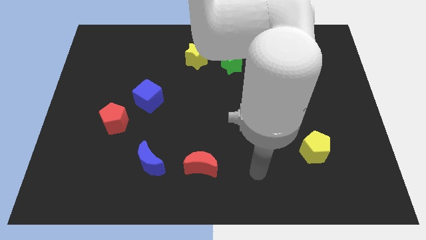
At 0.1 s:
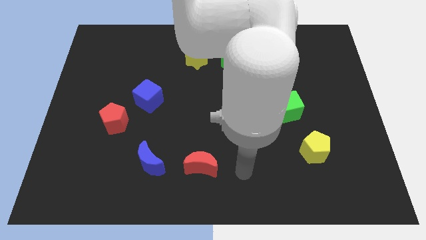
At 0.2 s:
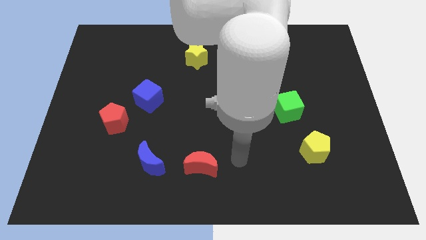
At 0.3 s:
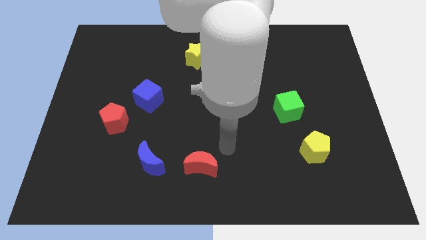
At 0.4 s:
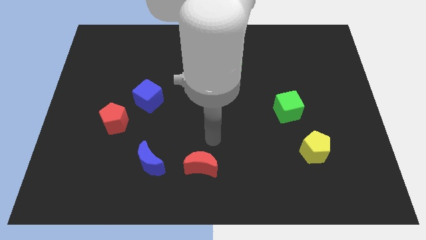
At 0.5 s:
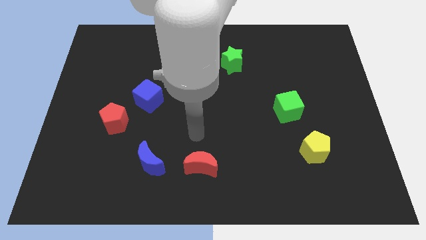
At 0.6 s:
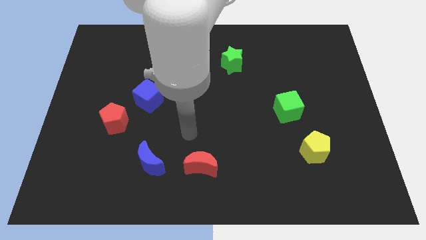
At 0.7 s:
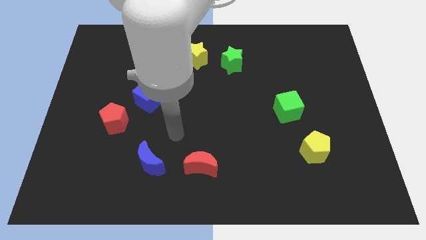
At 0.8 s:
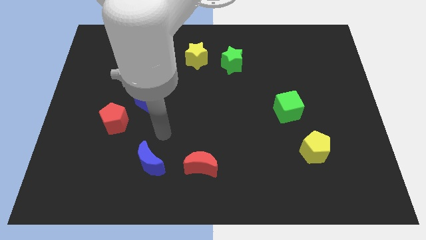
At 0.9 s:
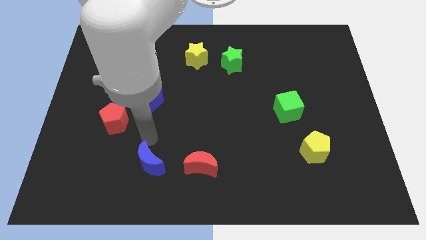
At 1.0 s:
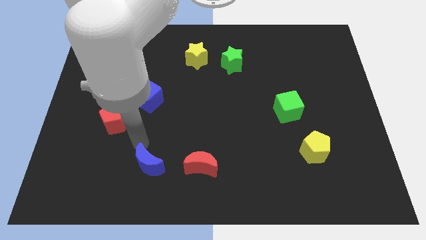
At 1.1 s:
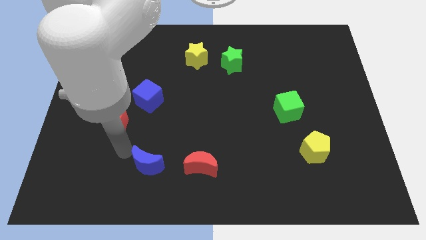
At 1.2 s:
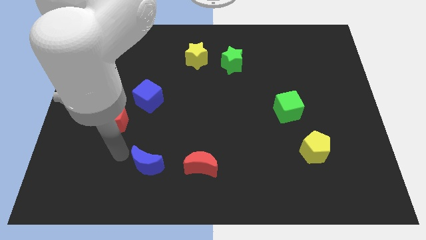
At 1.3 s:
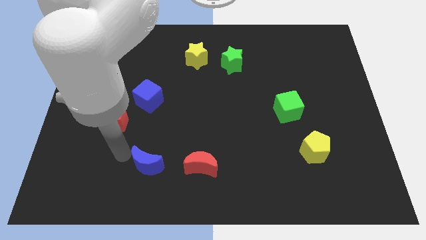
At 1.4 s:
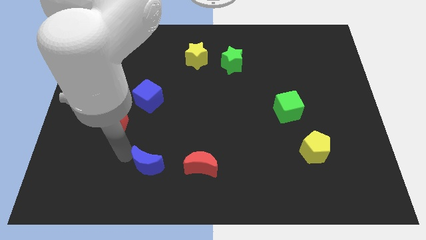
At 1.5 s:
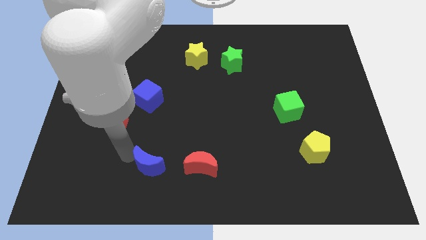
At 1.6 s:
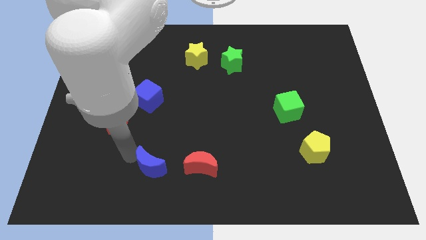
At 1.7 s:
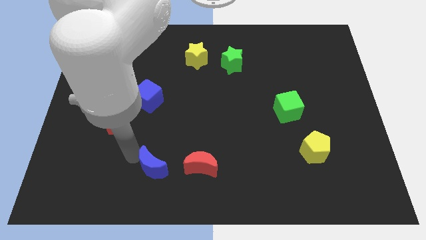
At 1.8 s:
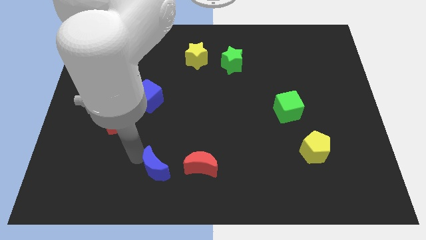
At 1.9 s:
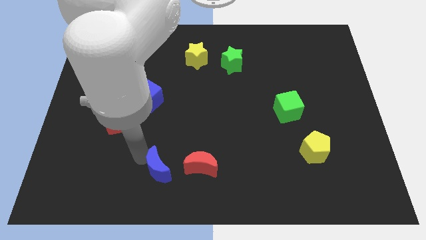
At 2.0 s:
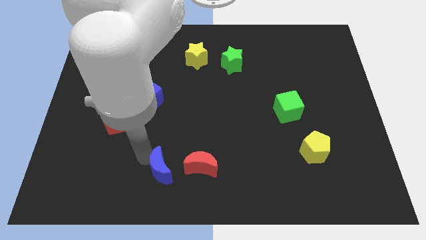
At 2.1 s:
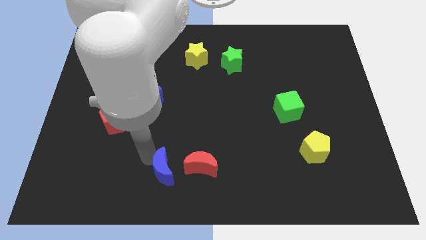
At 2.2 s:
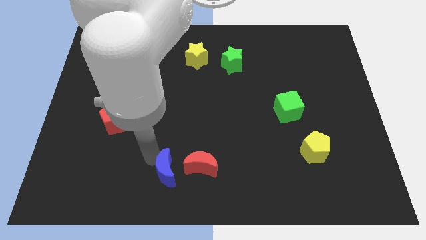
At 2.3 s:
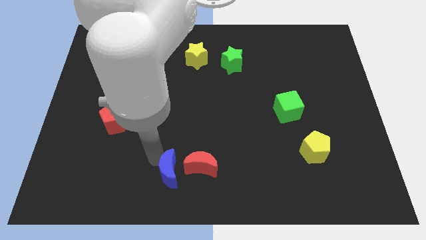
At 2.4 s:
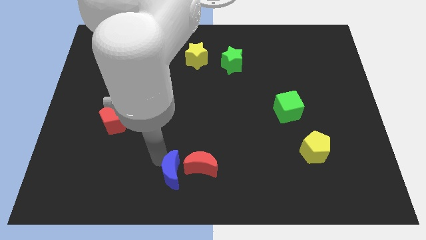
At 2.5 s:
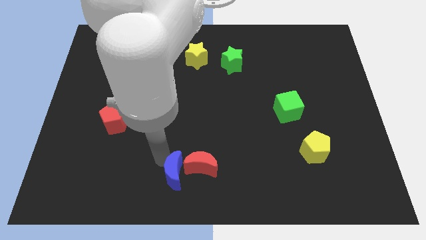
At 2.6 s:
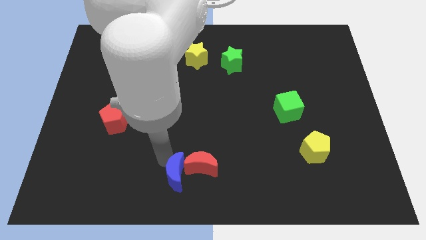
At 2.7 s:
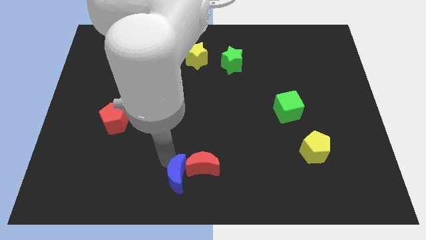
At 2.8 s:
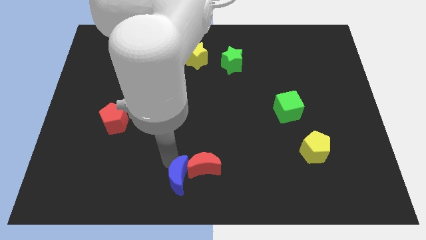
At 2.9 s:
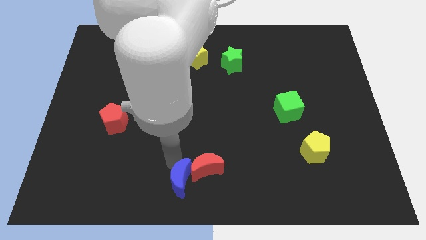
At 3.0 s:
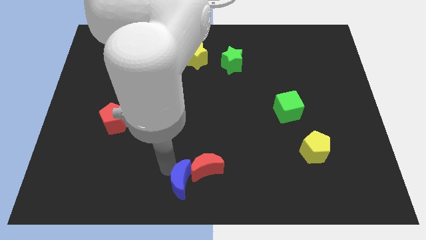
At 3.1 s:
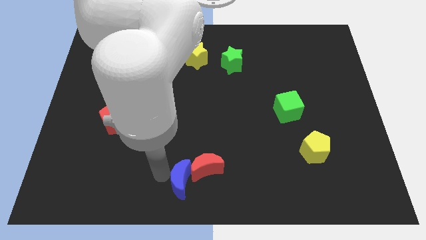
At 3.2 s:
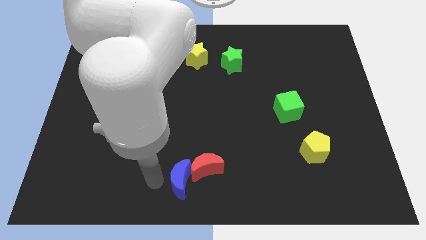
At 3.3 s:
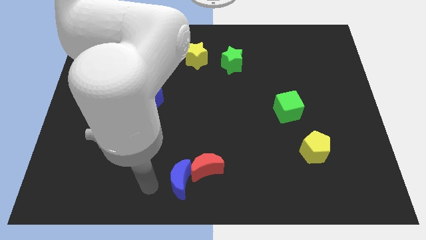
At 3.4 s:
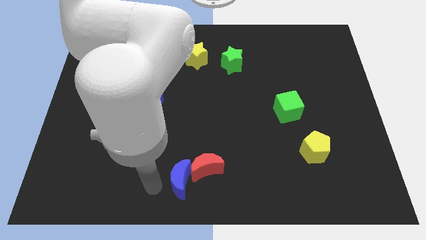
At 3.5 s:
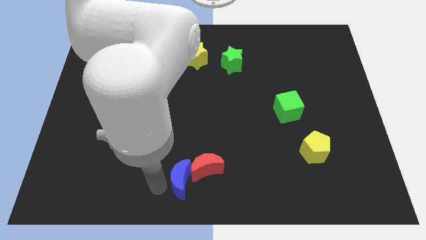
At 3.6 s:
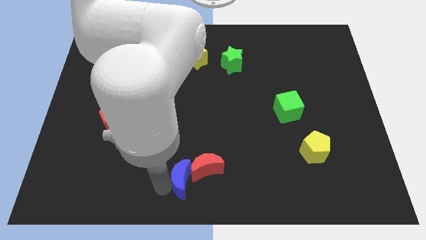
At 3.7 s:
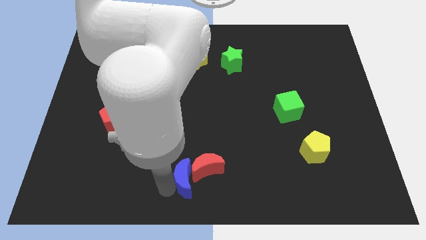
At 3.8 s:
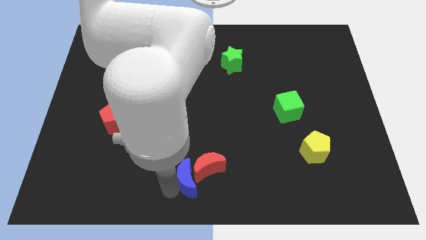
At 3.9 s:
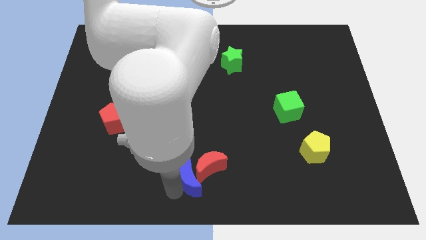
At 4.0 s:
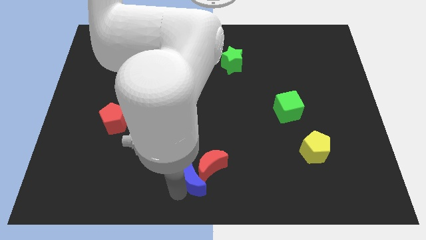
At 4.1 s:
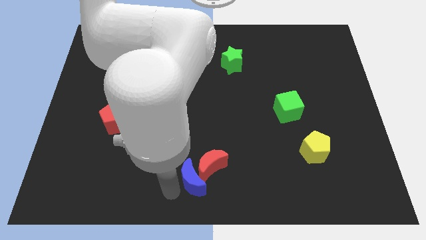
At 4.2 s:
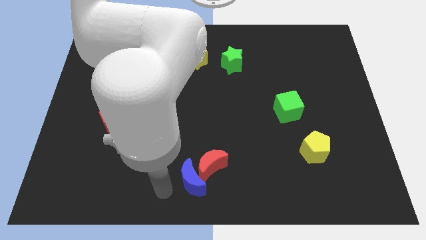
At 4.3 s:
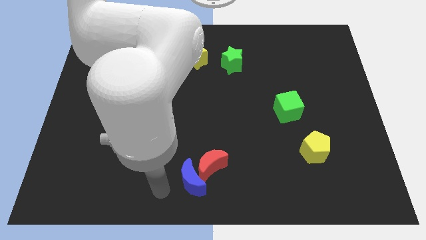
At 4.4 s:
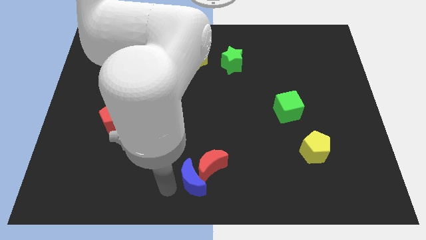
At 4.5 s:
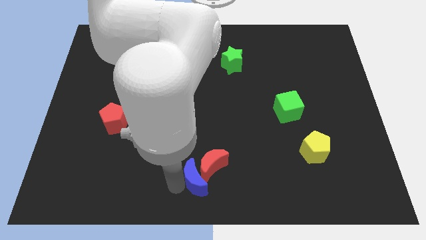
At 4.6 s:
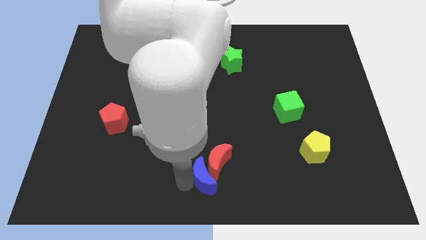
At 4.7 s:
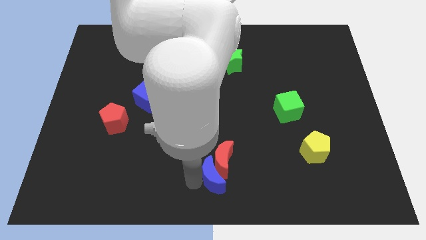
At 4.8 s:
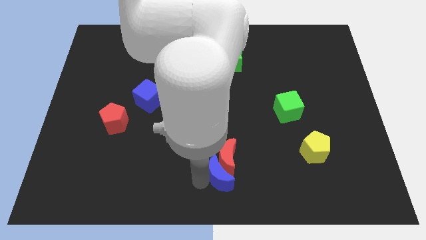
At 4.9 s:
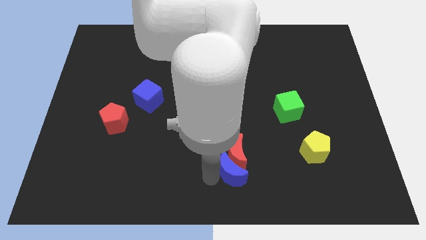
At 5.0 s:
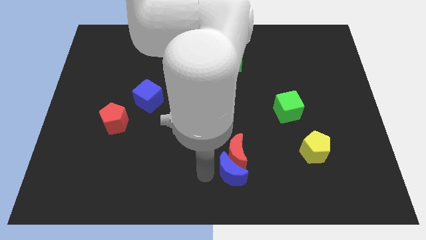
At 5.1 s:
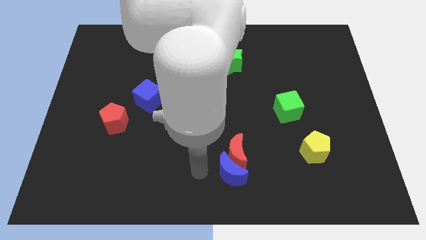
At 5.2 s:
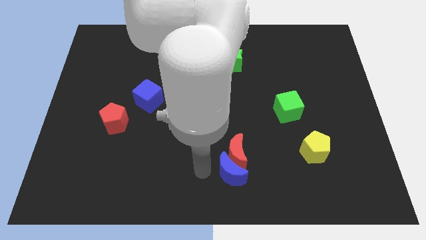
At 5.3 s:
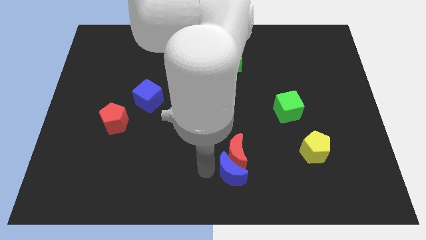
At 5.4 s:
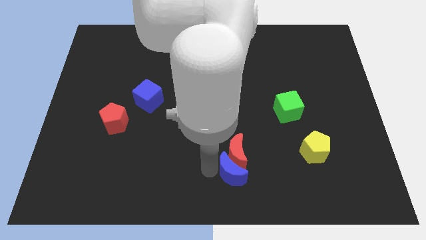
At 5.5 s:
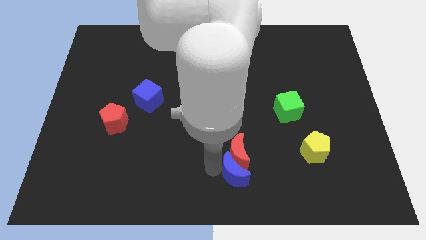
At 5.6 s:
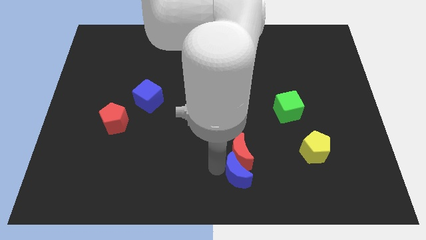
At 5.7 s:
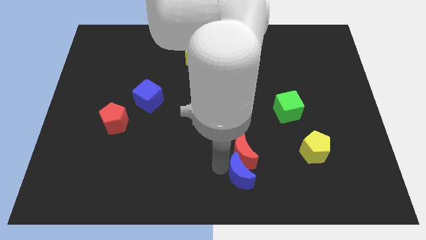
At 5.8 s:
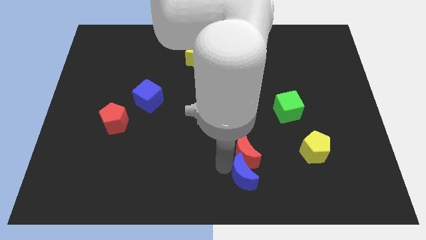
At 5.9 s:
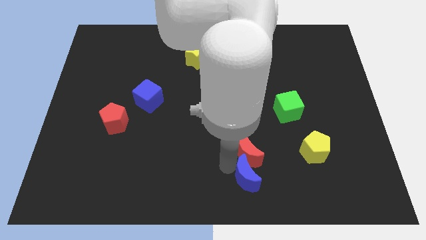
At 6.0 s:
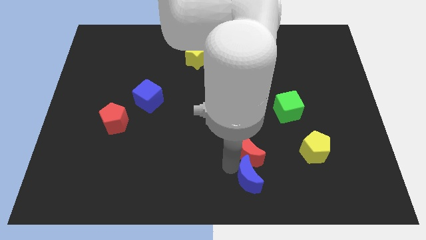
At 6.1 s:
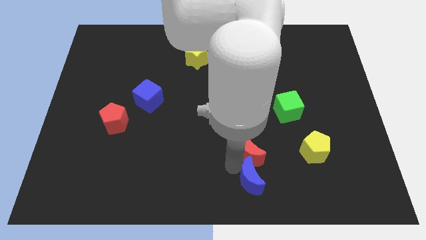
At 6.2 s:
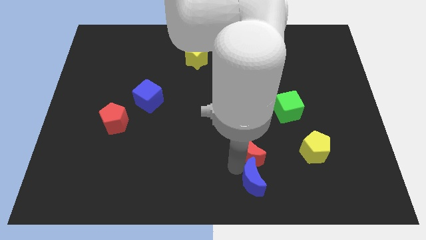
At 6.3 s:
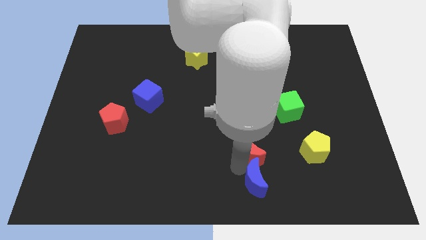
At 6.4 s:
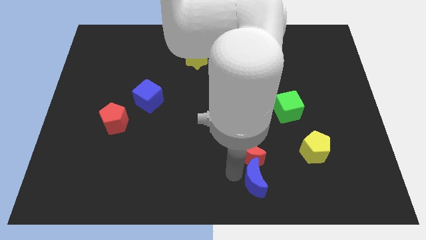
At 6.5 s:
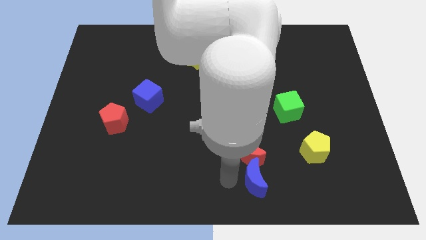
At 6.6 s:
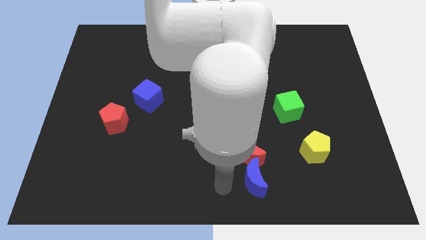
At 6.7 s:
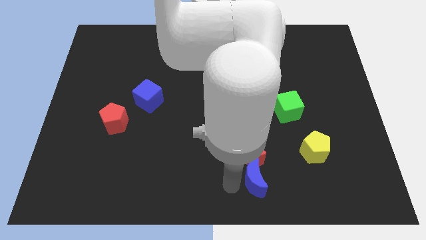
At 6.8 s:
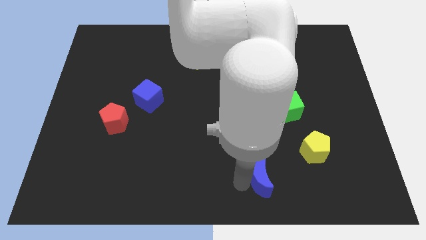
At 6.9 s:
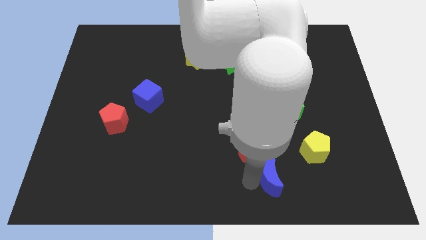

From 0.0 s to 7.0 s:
push the blue moon to the bottom left of the yellow pentagon

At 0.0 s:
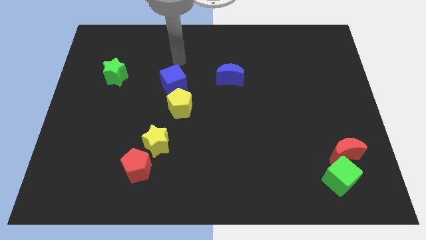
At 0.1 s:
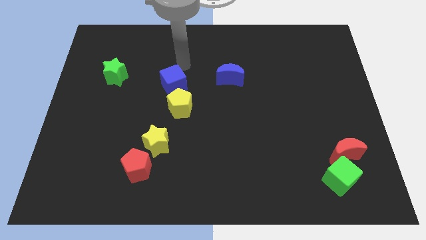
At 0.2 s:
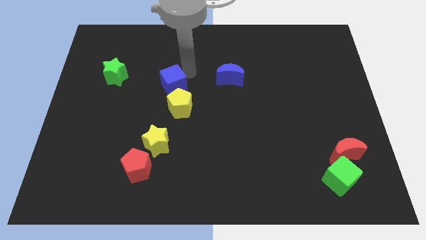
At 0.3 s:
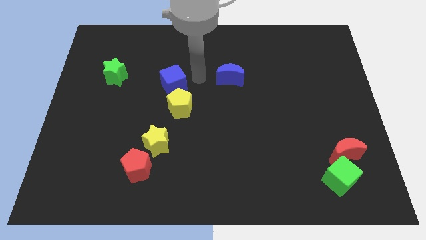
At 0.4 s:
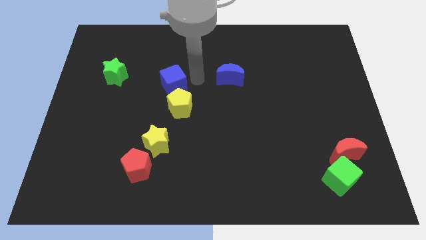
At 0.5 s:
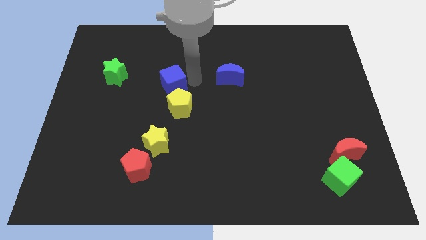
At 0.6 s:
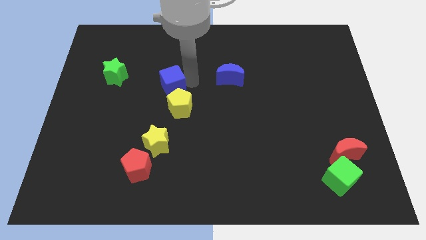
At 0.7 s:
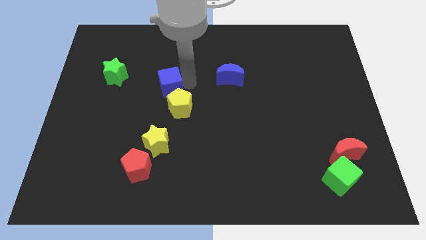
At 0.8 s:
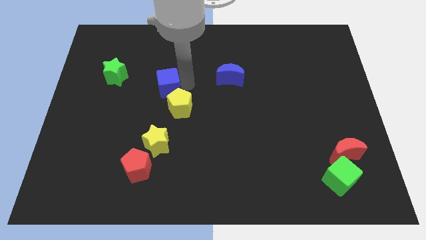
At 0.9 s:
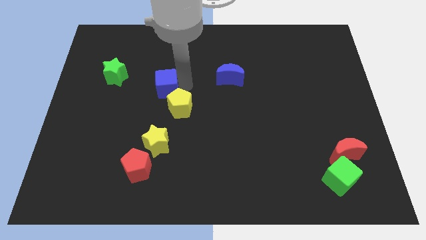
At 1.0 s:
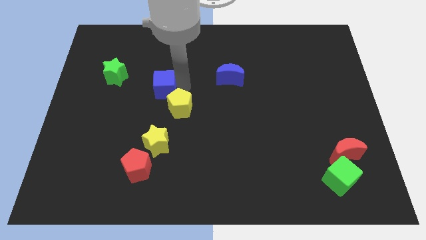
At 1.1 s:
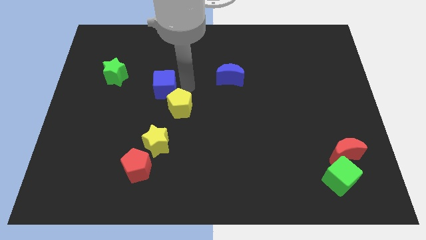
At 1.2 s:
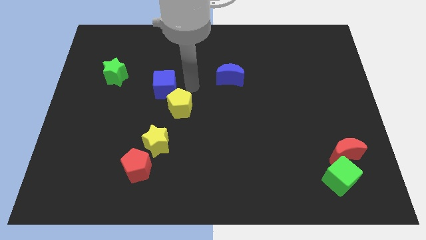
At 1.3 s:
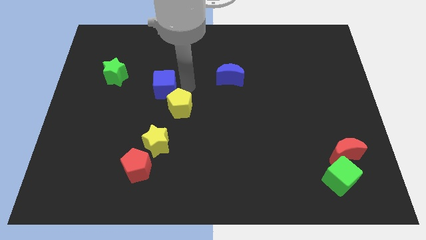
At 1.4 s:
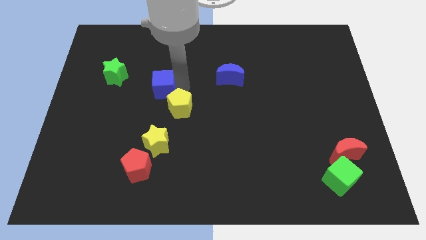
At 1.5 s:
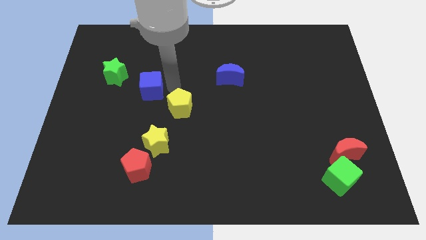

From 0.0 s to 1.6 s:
slide the blue cube to the bottom right of the green star
